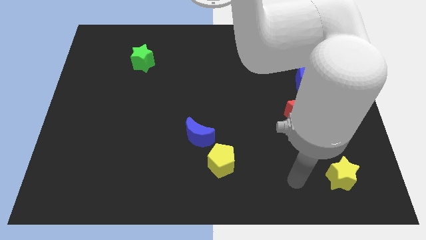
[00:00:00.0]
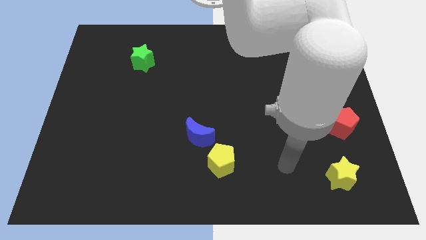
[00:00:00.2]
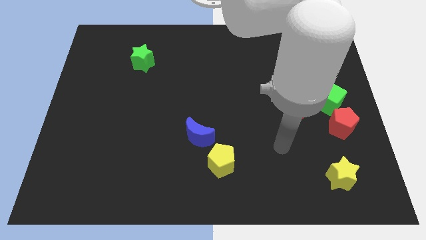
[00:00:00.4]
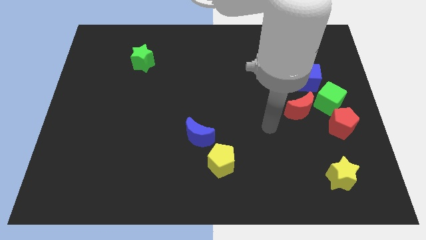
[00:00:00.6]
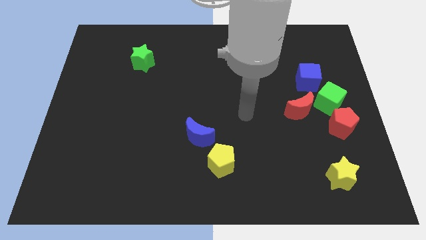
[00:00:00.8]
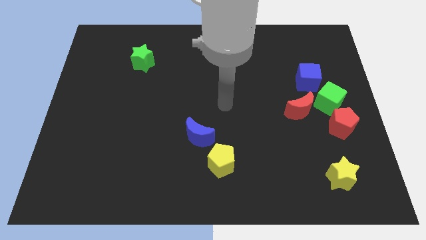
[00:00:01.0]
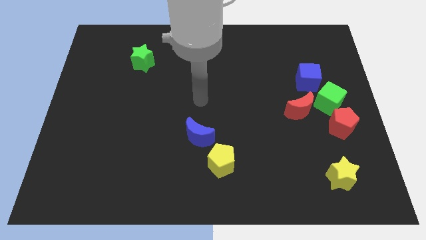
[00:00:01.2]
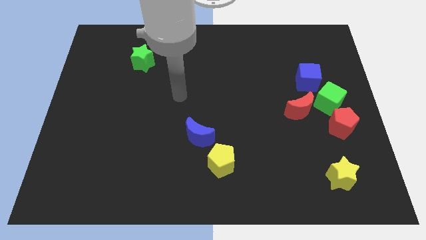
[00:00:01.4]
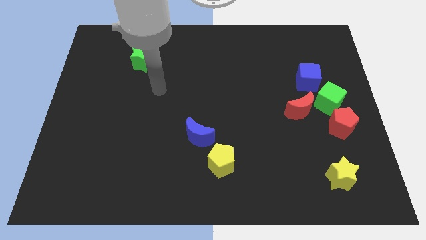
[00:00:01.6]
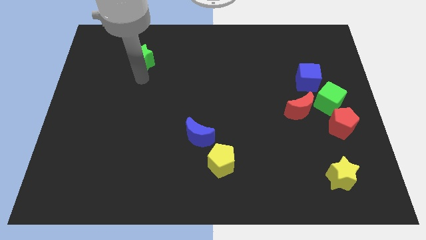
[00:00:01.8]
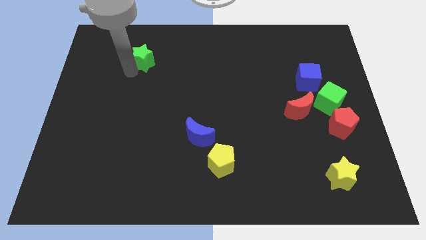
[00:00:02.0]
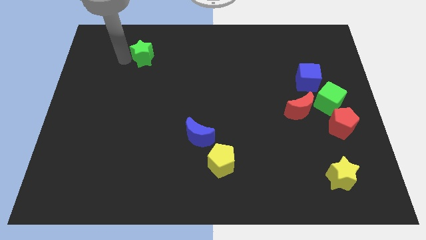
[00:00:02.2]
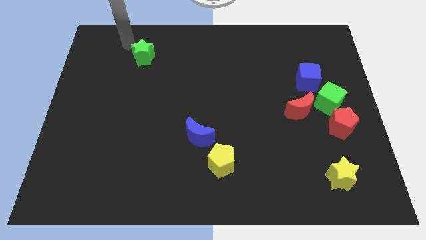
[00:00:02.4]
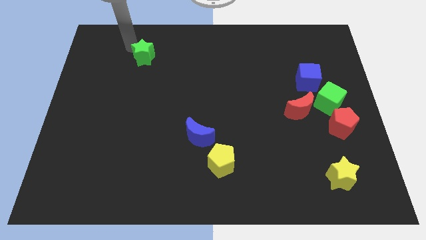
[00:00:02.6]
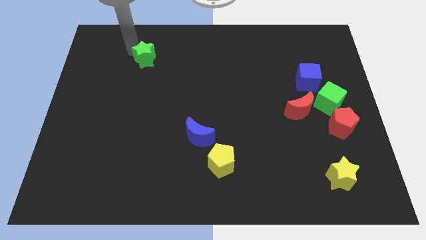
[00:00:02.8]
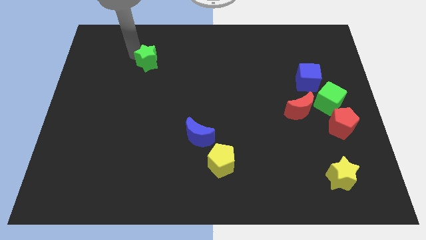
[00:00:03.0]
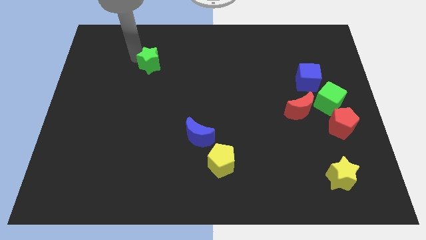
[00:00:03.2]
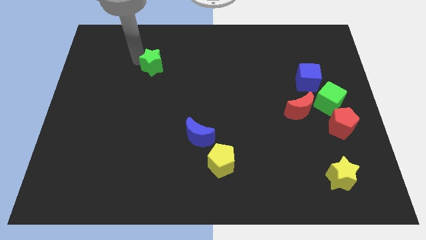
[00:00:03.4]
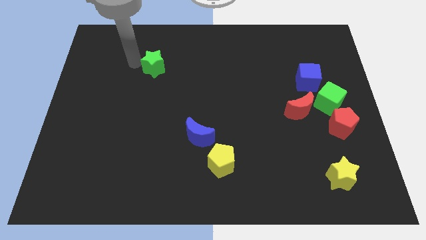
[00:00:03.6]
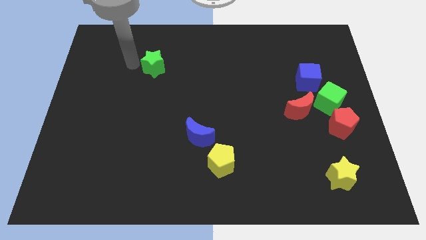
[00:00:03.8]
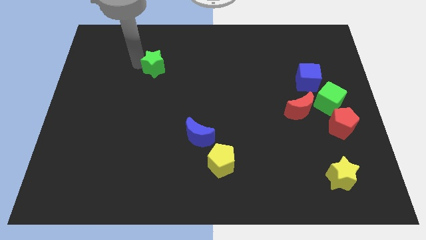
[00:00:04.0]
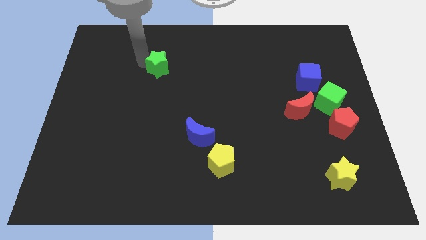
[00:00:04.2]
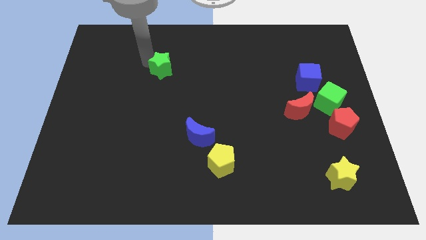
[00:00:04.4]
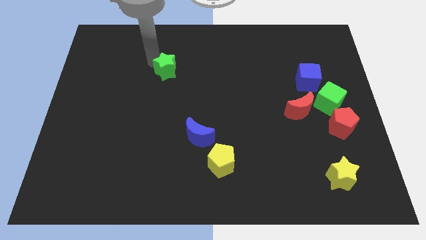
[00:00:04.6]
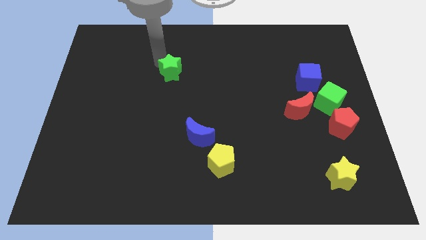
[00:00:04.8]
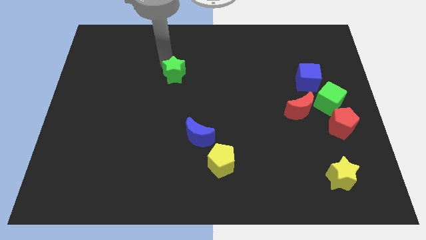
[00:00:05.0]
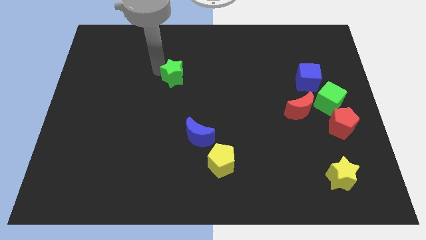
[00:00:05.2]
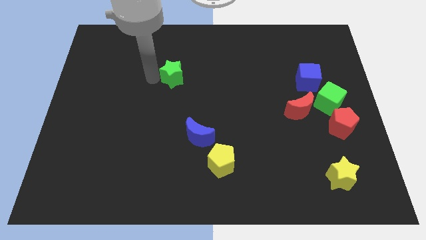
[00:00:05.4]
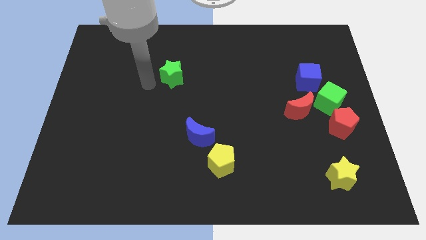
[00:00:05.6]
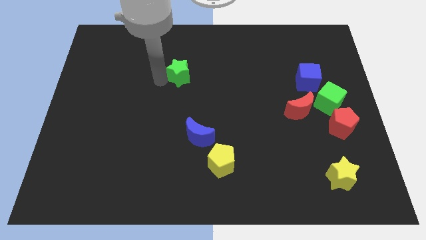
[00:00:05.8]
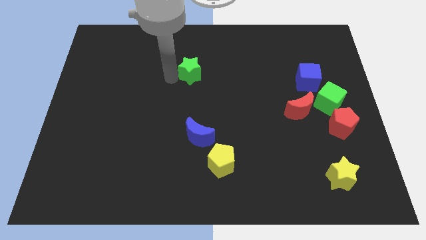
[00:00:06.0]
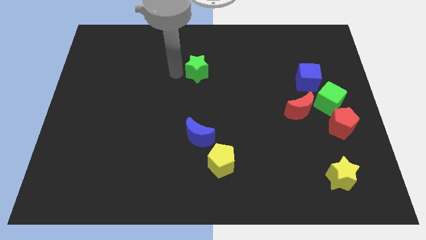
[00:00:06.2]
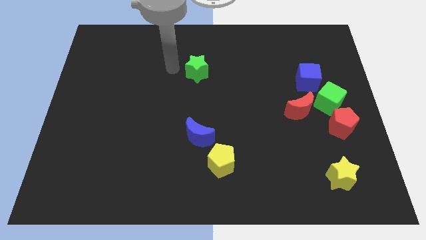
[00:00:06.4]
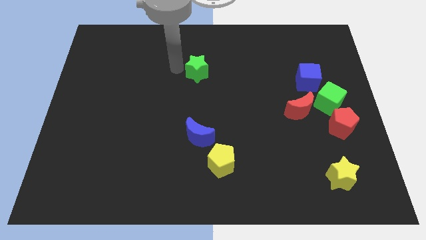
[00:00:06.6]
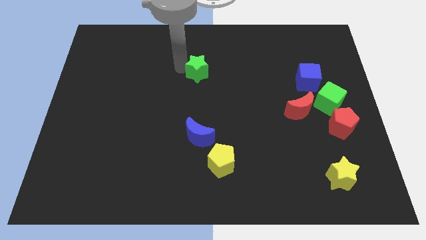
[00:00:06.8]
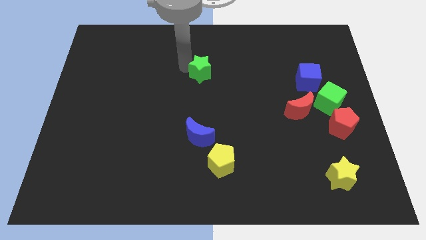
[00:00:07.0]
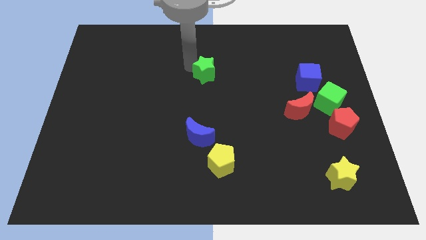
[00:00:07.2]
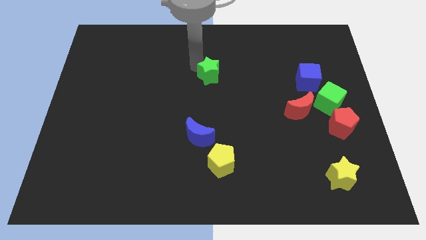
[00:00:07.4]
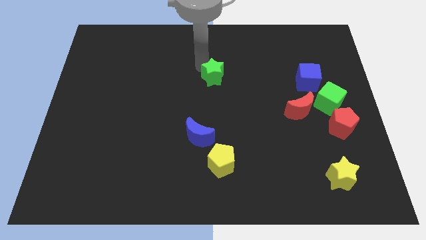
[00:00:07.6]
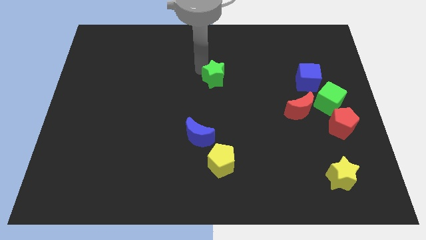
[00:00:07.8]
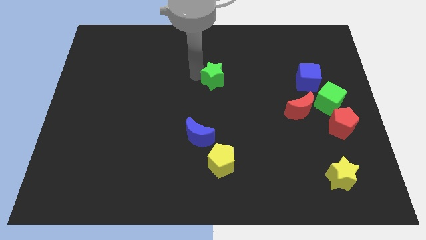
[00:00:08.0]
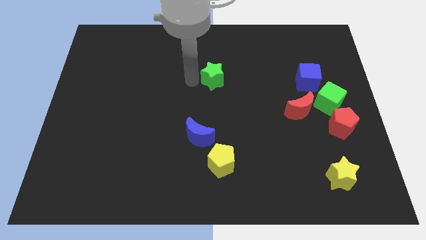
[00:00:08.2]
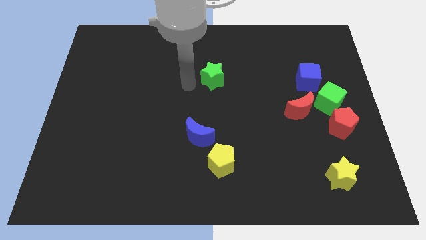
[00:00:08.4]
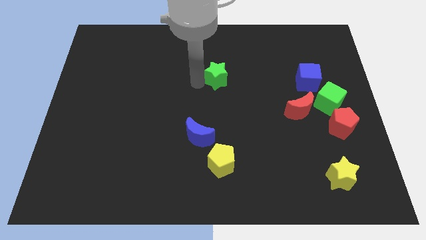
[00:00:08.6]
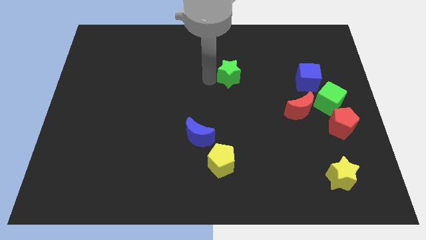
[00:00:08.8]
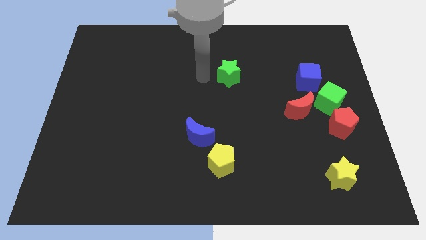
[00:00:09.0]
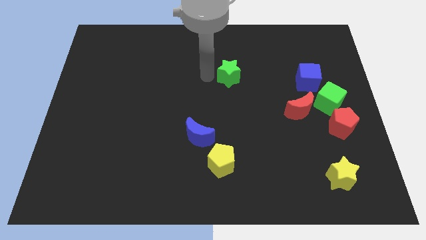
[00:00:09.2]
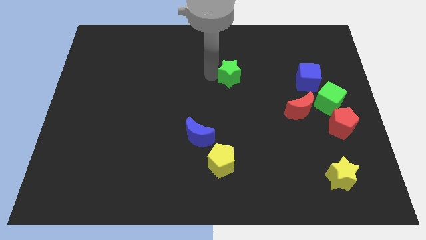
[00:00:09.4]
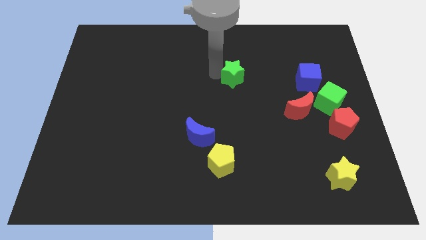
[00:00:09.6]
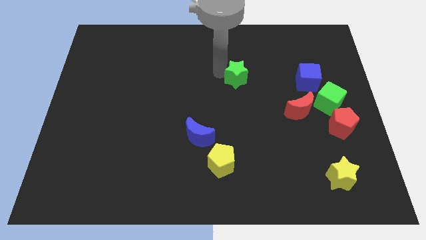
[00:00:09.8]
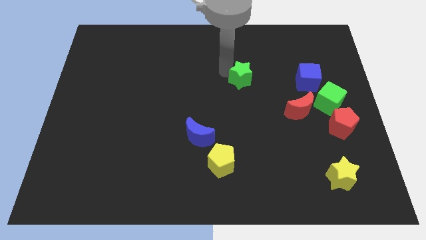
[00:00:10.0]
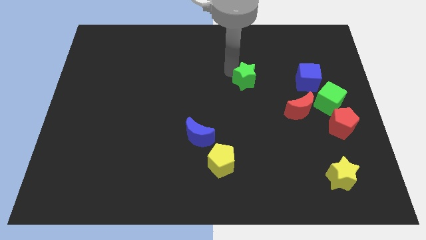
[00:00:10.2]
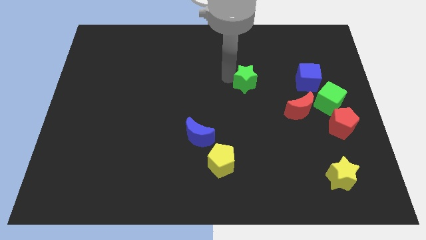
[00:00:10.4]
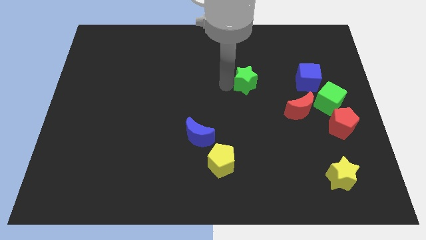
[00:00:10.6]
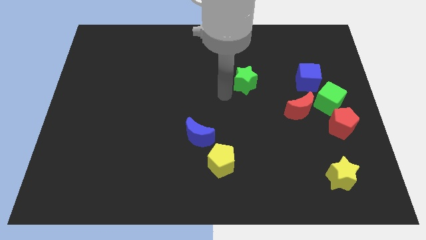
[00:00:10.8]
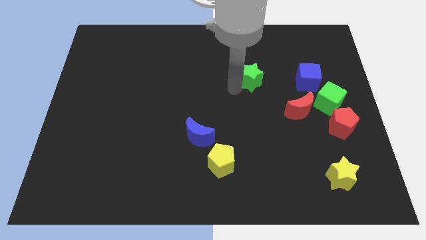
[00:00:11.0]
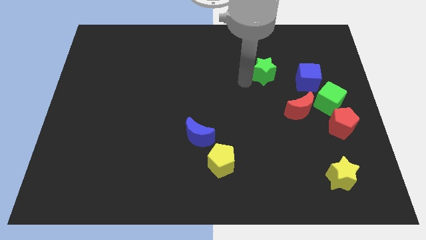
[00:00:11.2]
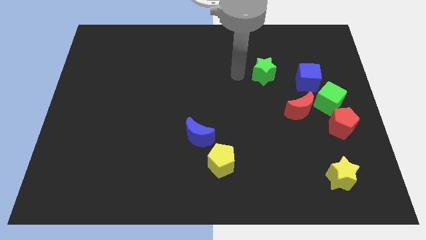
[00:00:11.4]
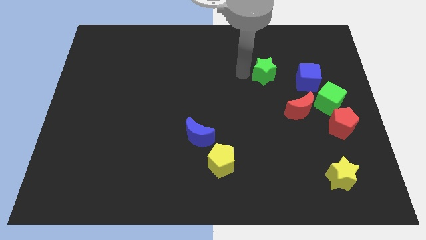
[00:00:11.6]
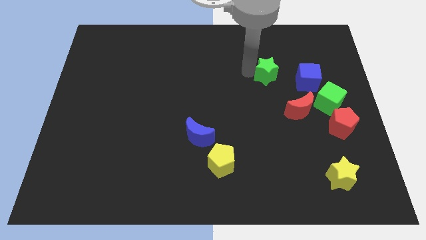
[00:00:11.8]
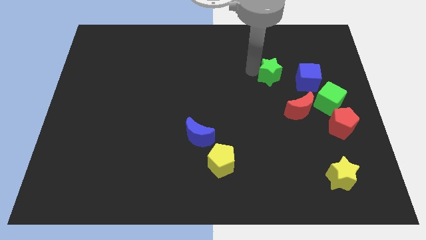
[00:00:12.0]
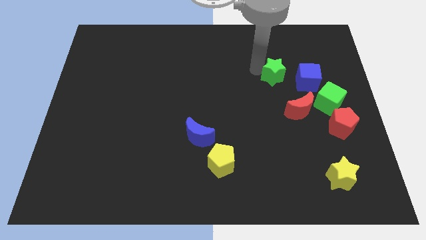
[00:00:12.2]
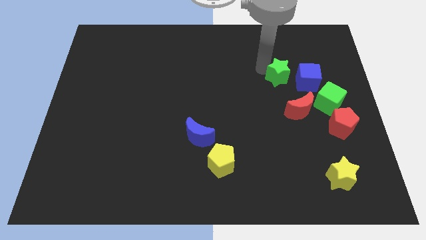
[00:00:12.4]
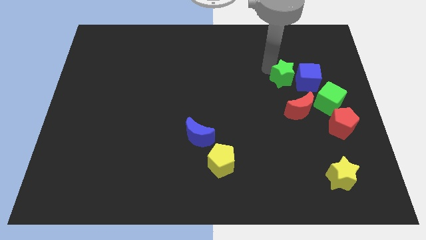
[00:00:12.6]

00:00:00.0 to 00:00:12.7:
put the green star next to the blue cube
